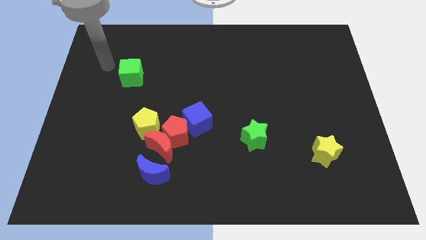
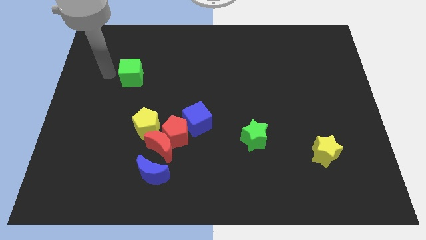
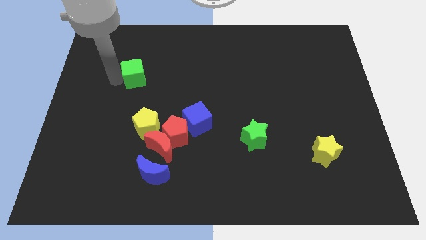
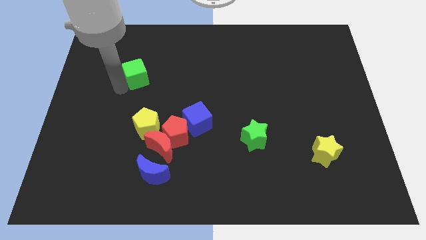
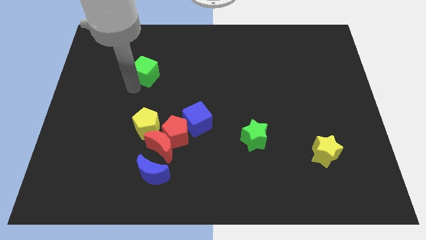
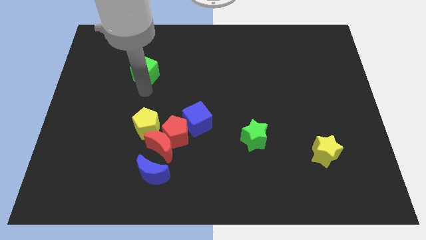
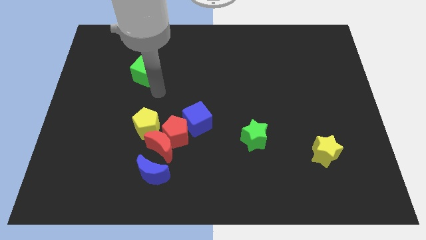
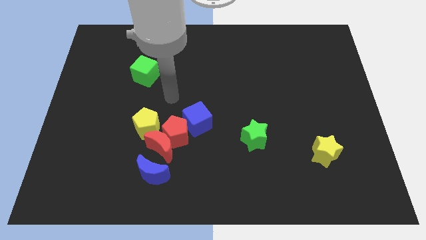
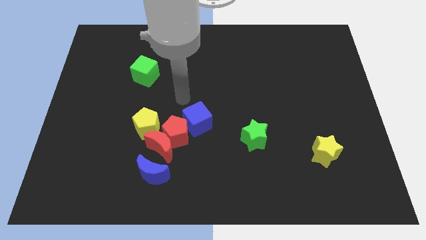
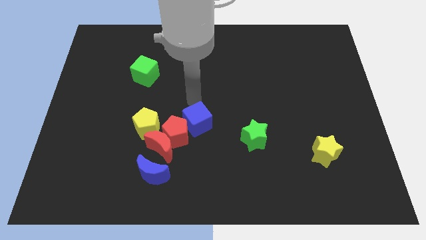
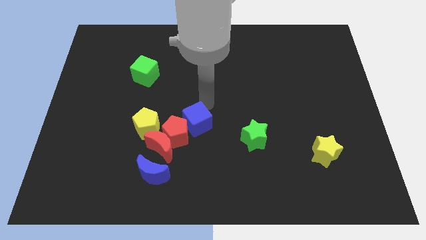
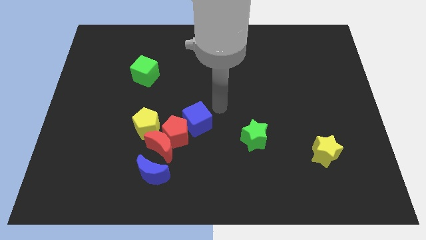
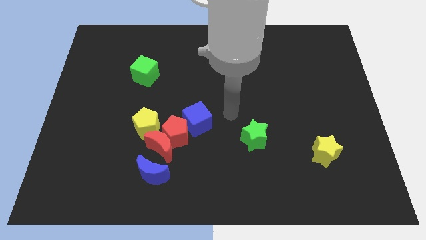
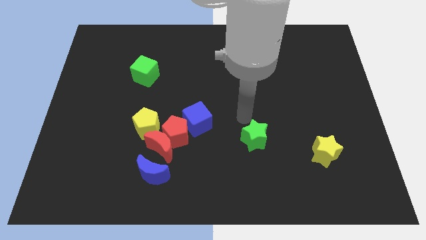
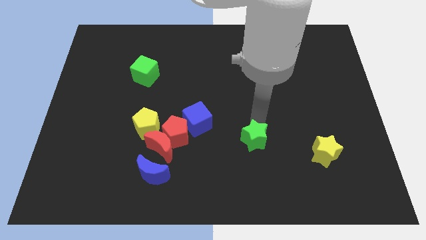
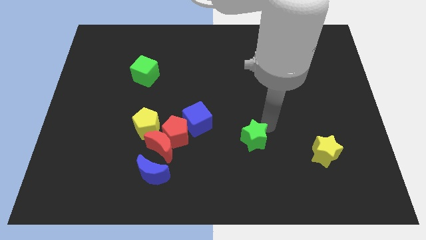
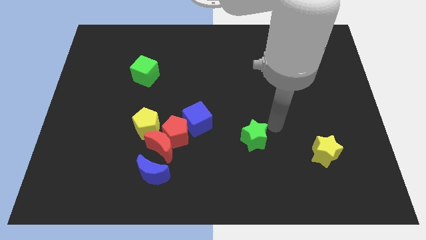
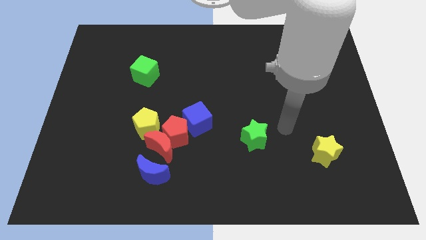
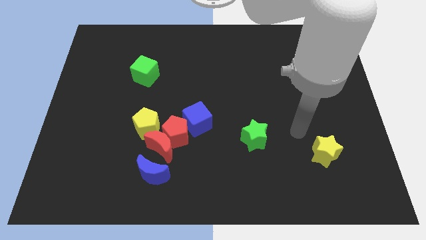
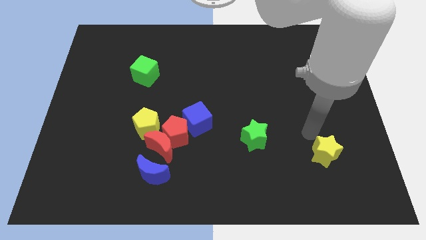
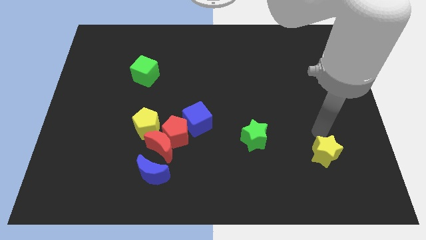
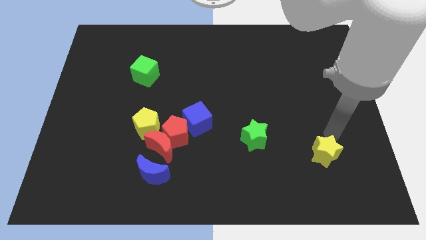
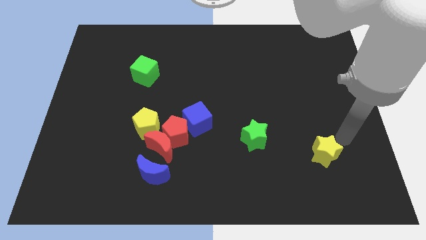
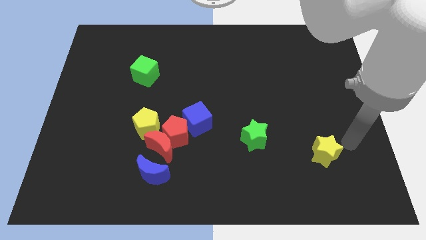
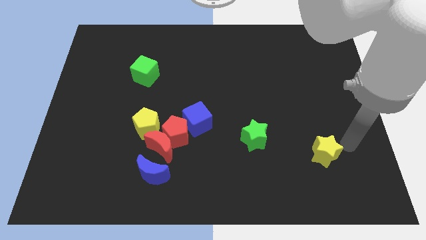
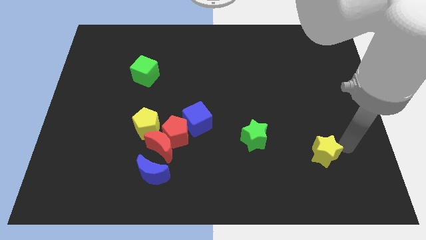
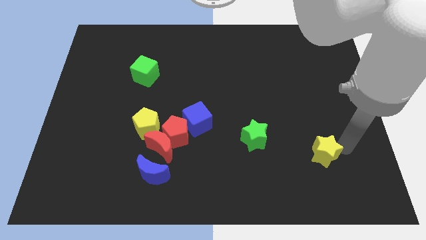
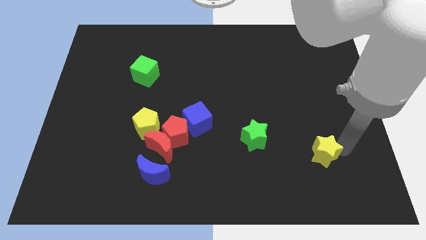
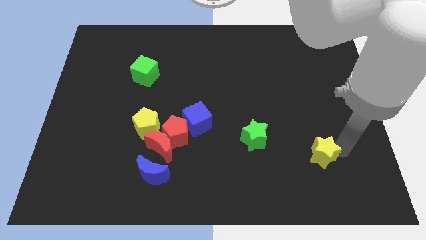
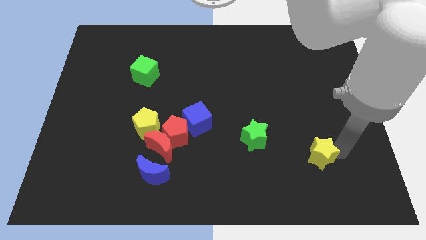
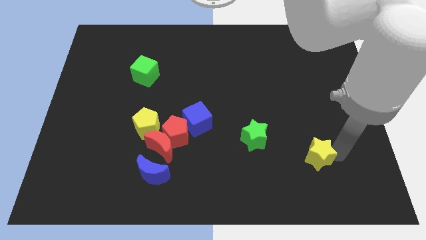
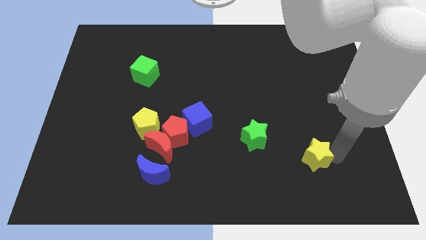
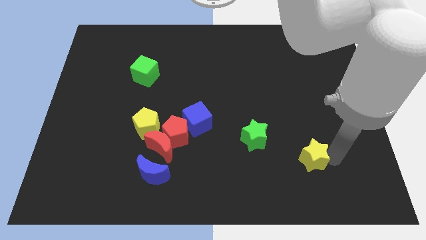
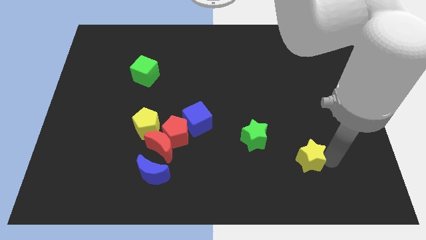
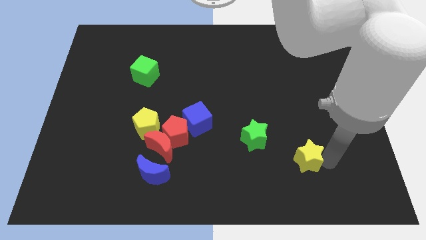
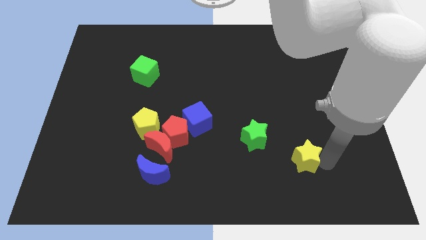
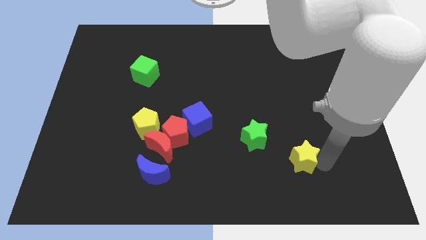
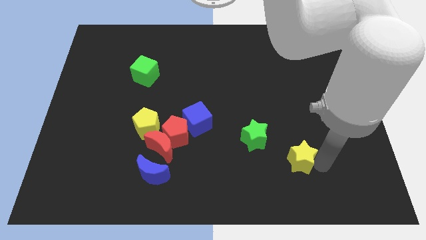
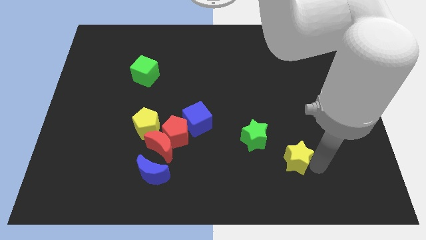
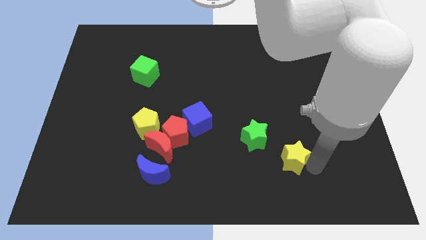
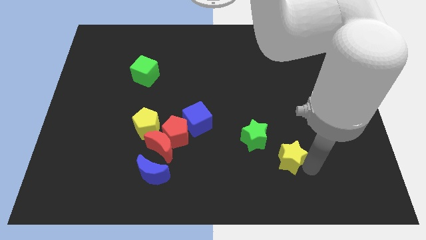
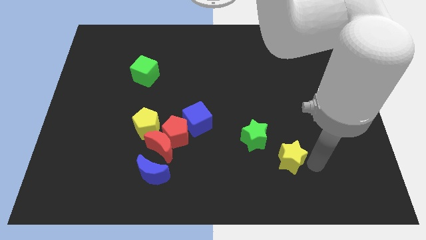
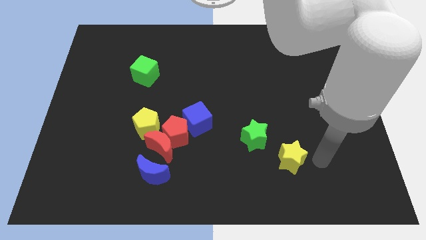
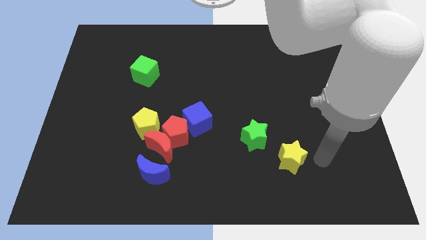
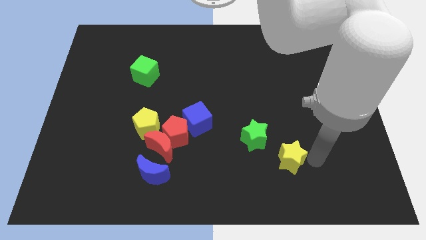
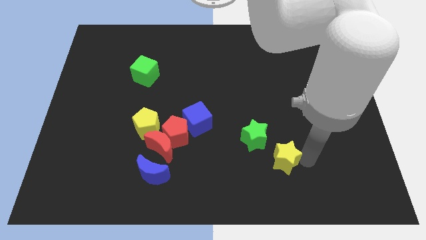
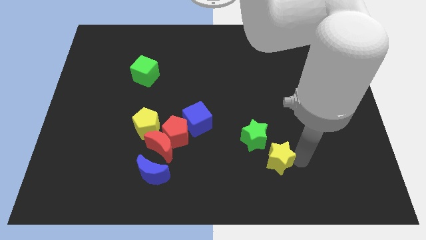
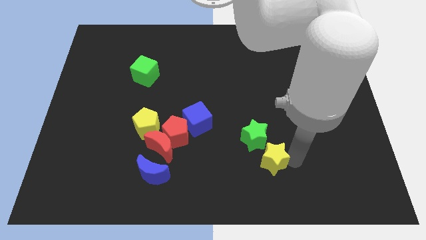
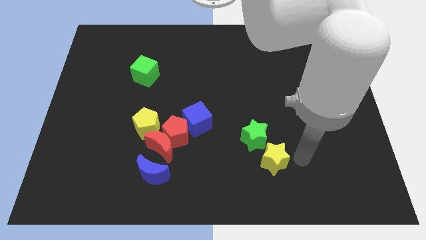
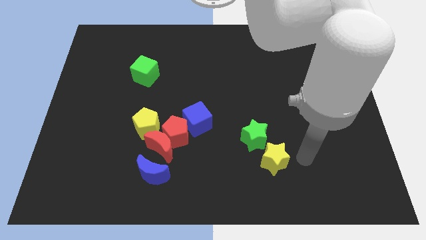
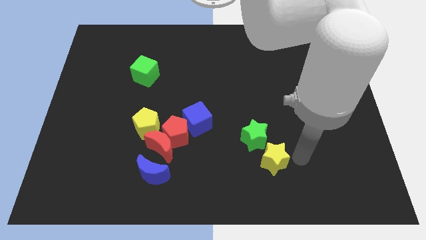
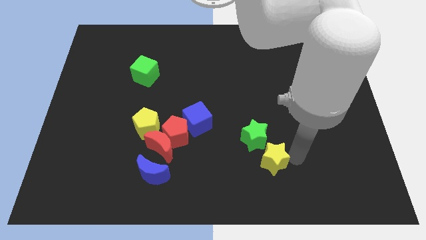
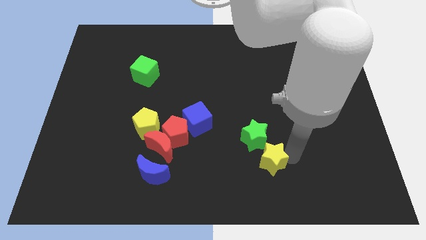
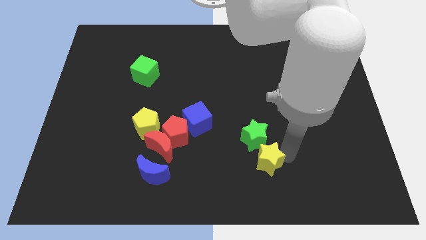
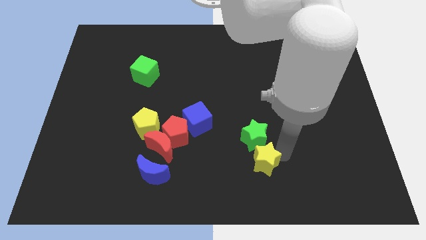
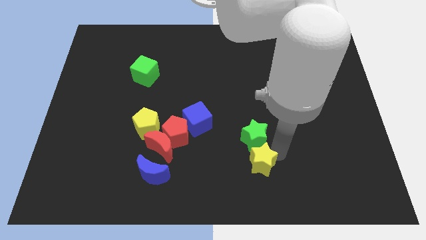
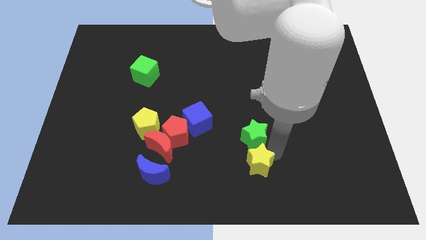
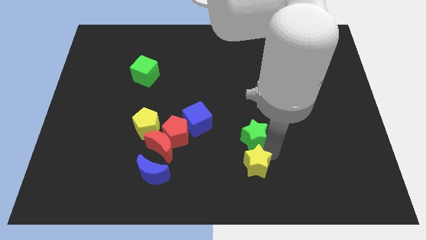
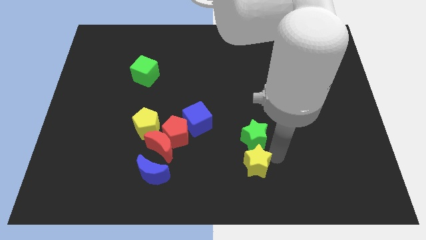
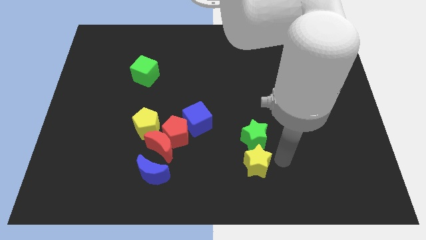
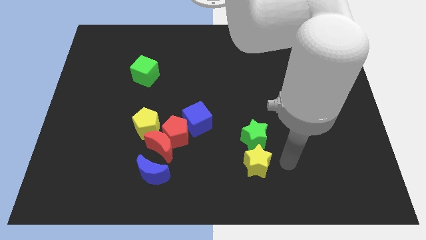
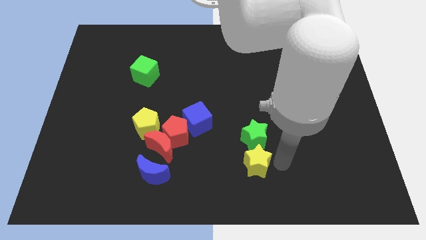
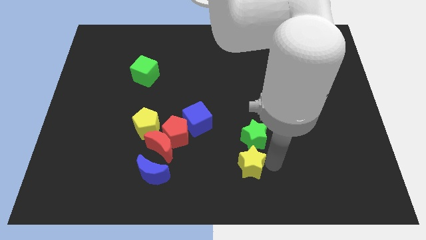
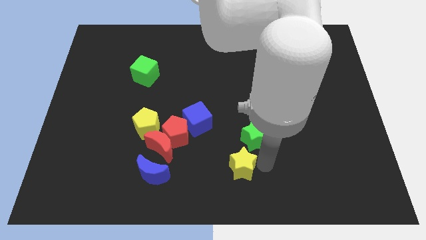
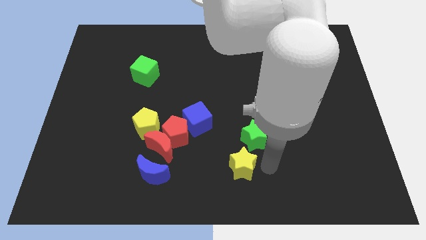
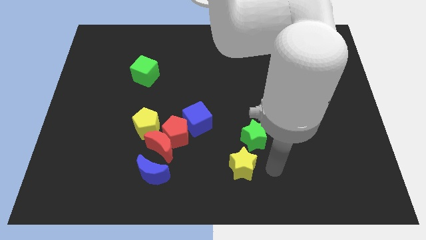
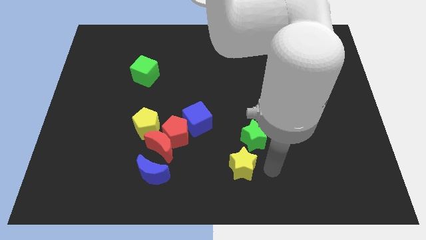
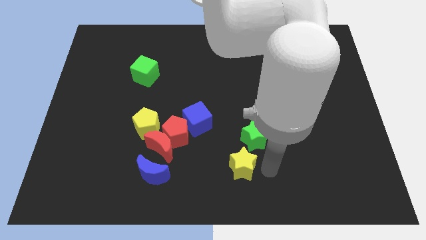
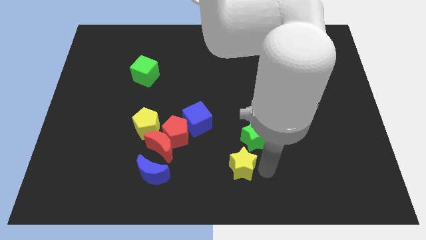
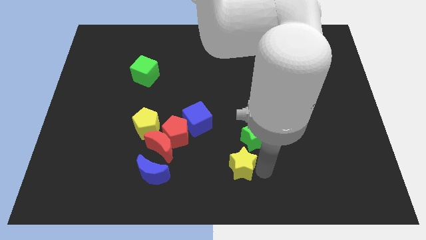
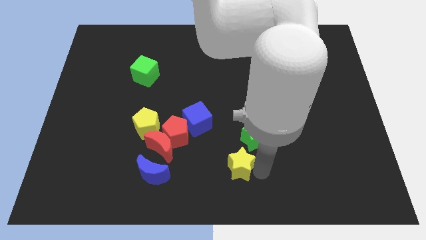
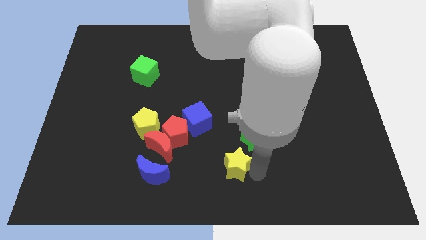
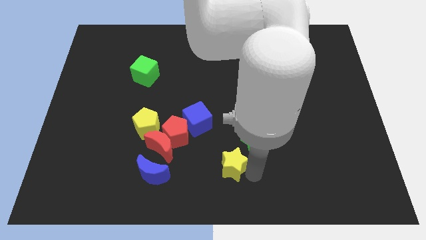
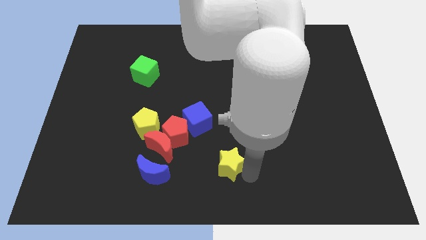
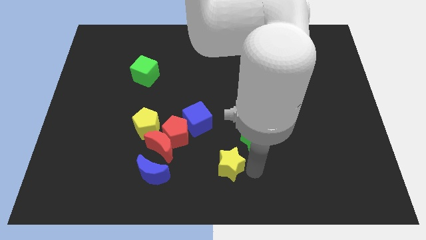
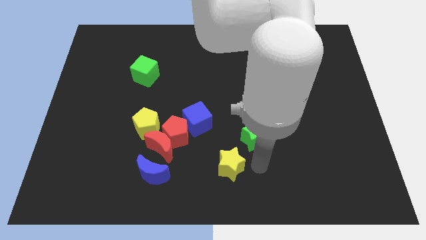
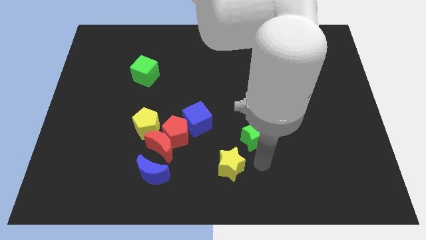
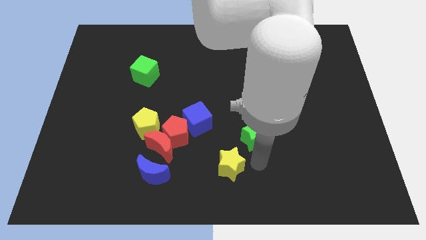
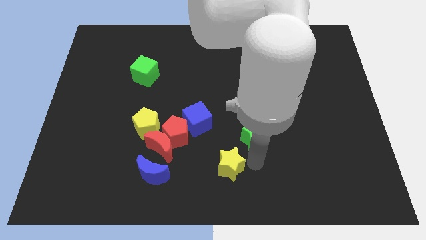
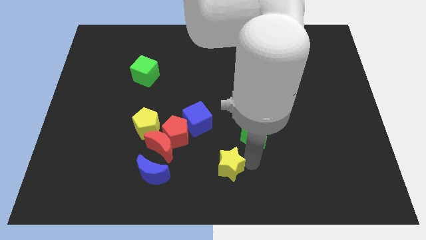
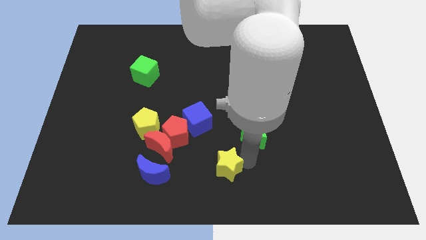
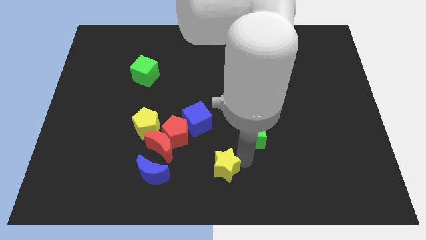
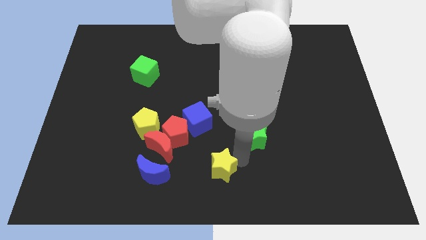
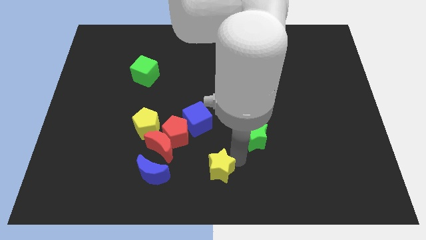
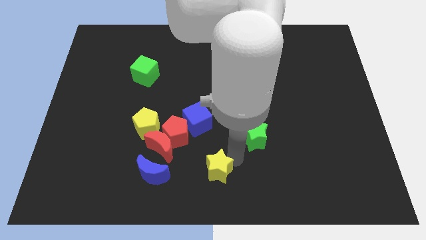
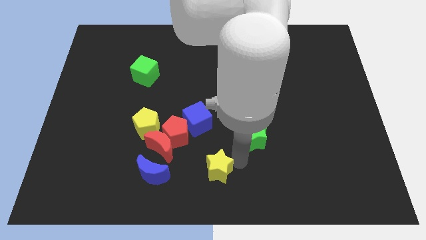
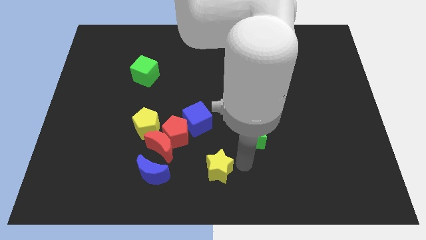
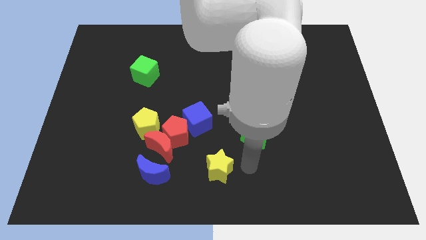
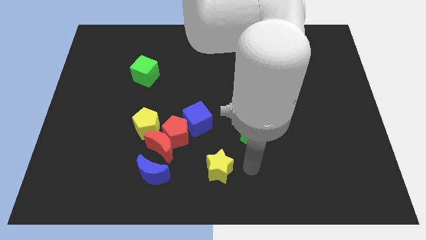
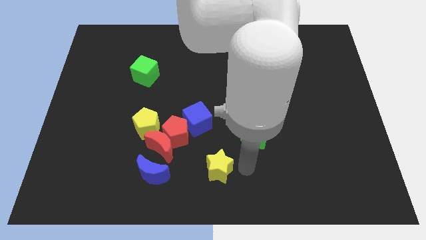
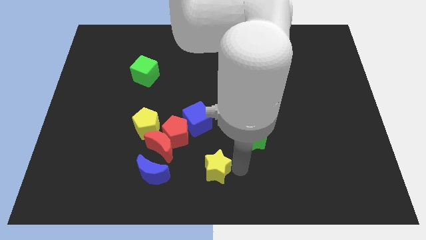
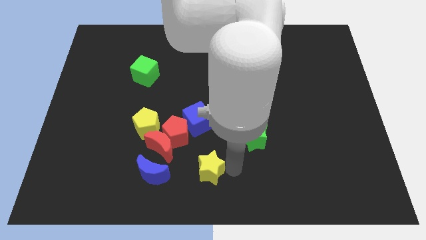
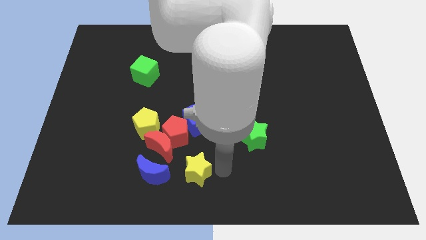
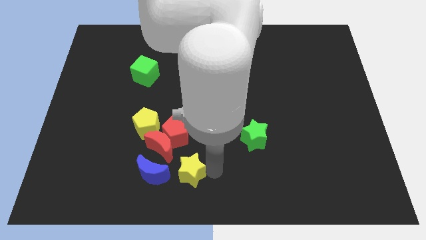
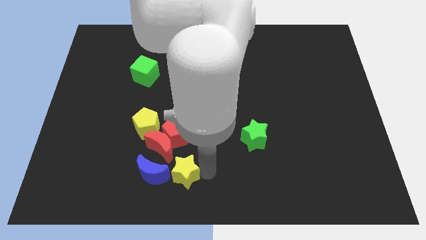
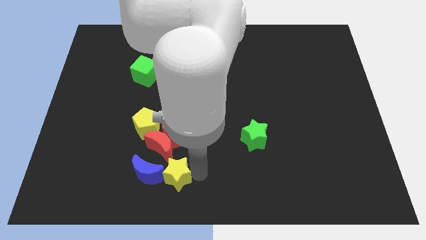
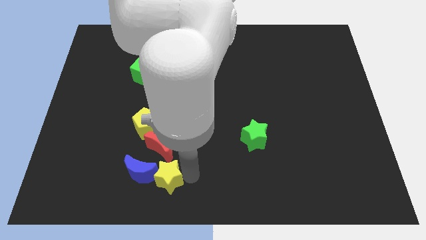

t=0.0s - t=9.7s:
push the yellow star to the blue moon
